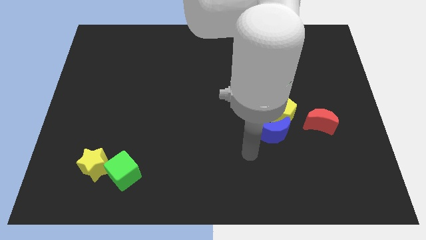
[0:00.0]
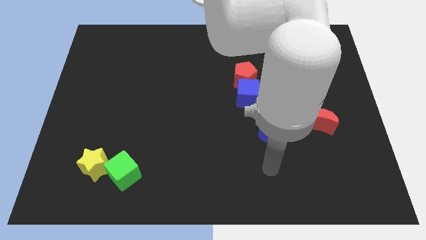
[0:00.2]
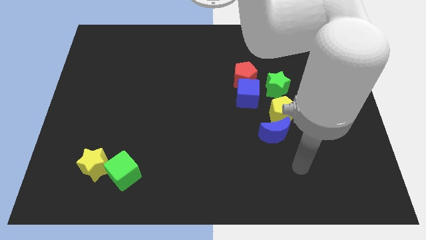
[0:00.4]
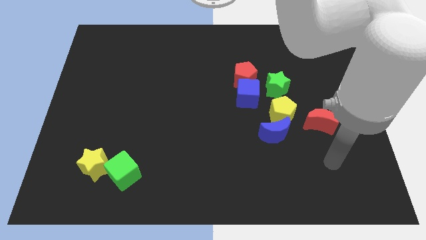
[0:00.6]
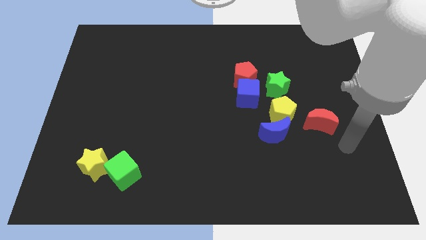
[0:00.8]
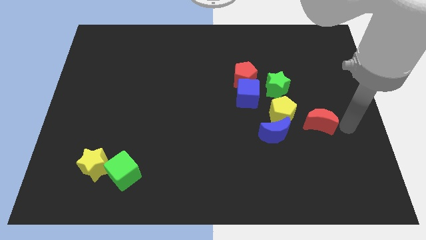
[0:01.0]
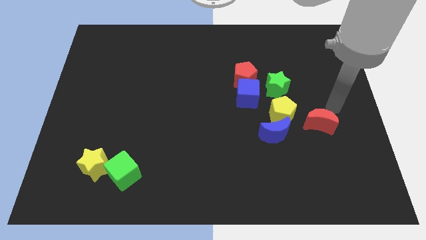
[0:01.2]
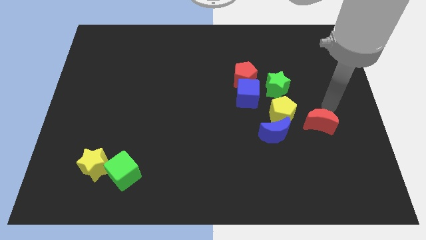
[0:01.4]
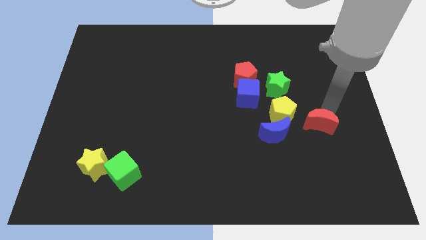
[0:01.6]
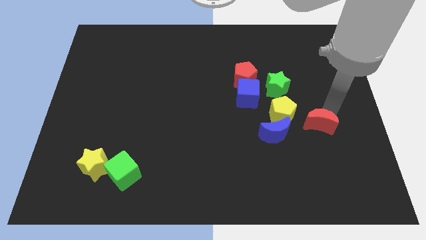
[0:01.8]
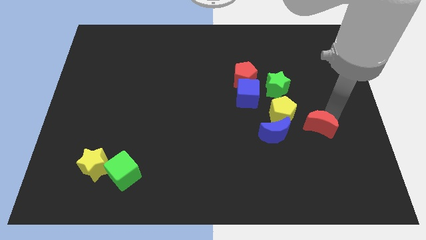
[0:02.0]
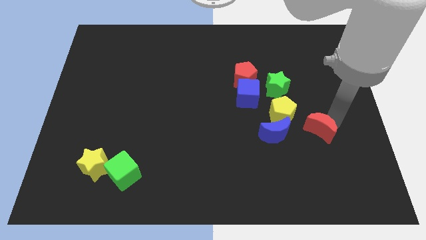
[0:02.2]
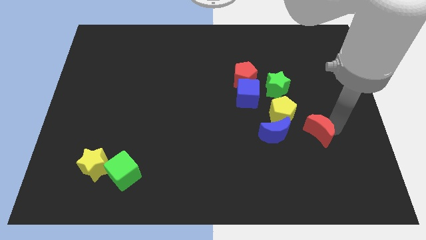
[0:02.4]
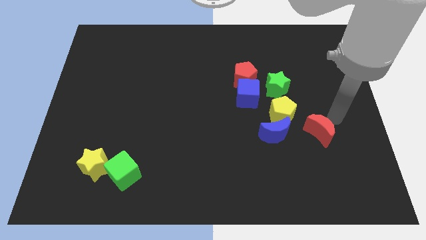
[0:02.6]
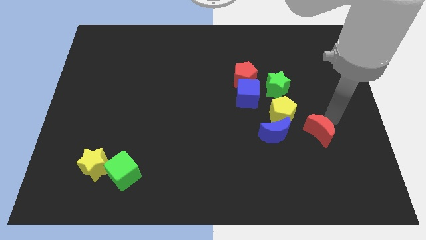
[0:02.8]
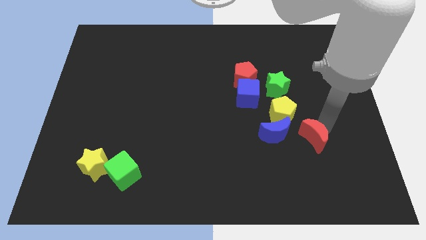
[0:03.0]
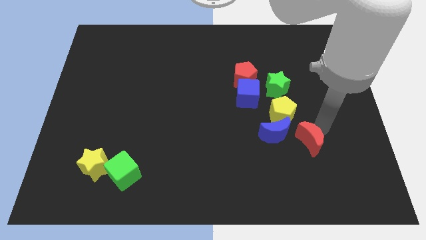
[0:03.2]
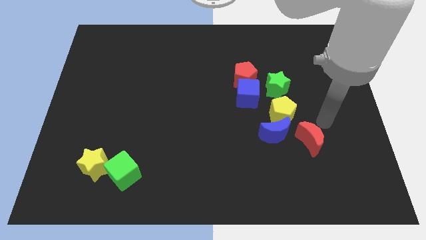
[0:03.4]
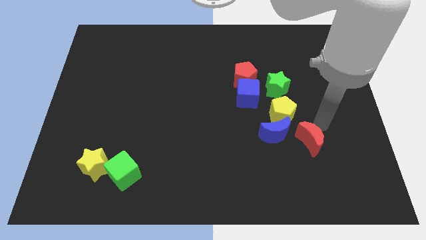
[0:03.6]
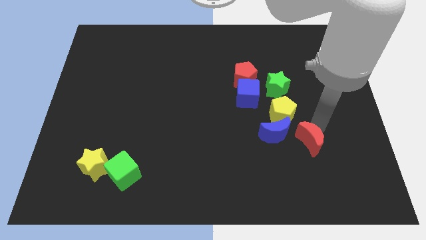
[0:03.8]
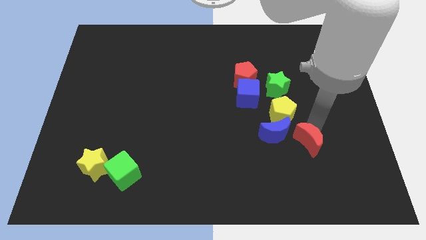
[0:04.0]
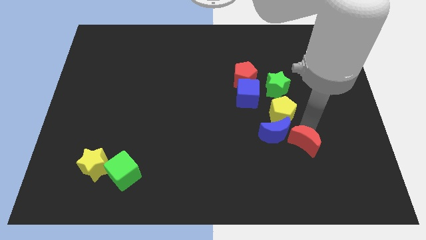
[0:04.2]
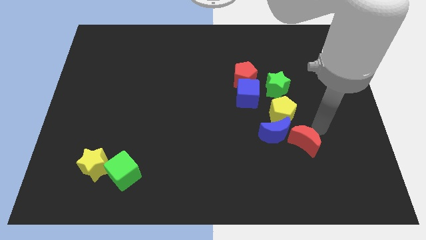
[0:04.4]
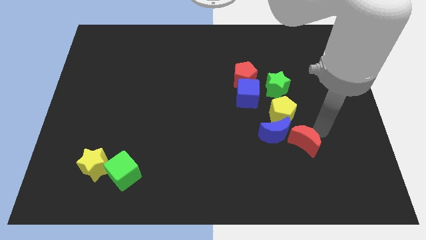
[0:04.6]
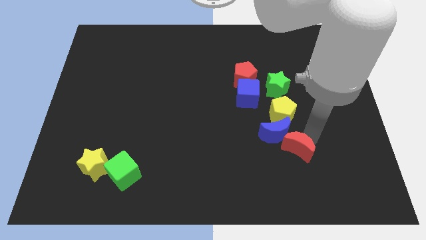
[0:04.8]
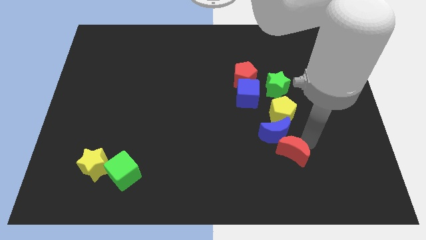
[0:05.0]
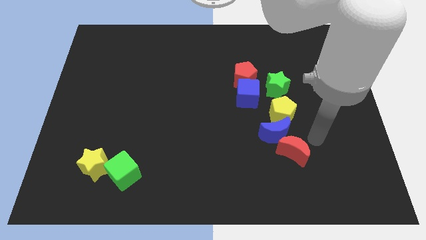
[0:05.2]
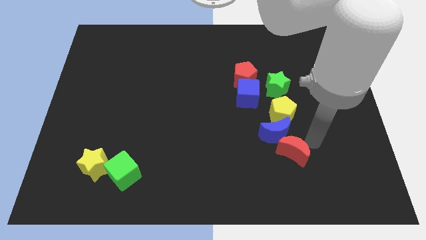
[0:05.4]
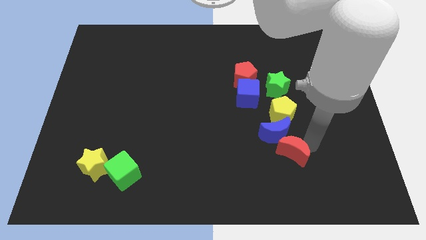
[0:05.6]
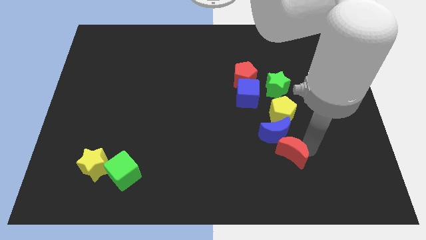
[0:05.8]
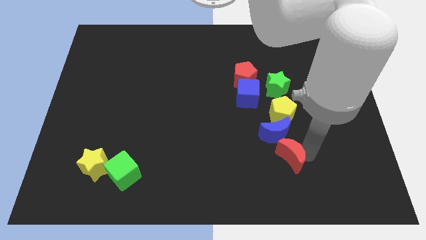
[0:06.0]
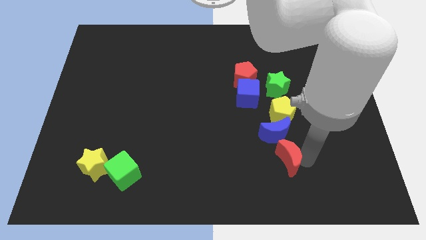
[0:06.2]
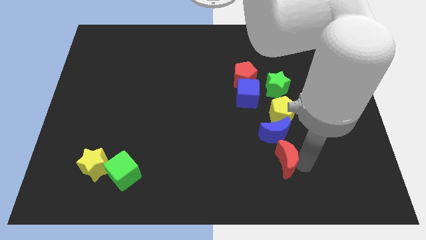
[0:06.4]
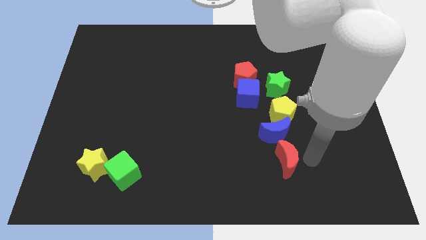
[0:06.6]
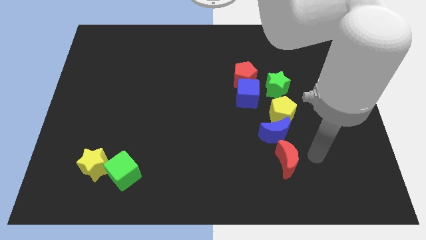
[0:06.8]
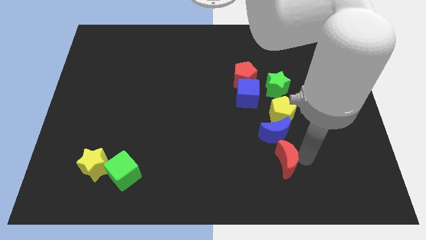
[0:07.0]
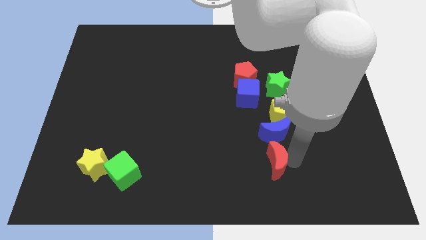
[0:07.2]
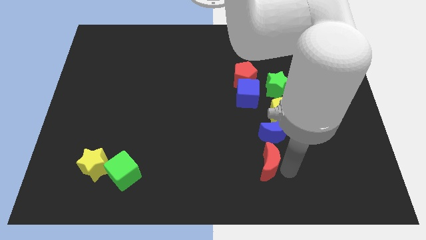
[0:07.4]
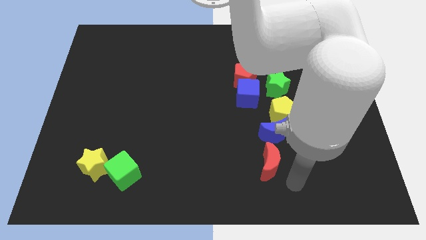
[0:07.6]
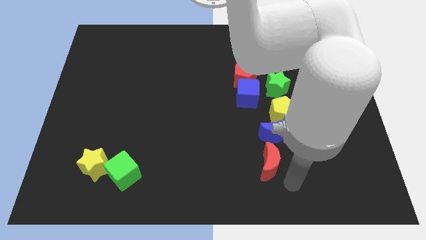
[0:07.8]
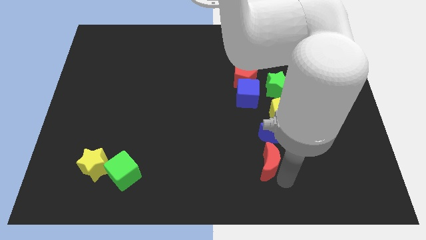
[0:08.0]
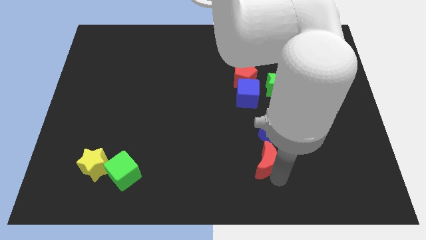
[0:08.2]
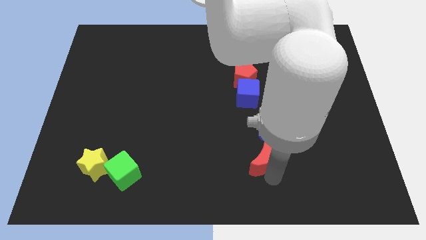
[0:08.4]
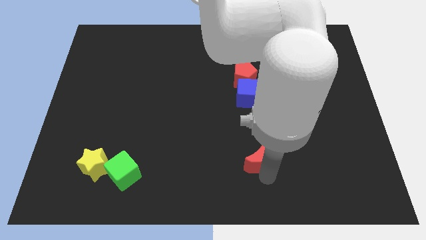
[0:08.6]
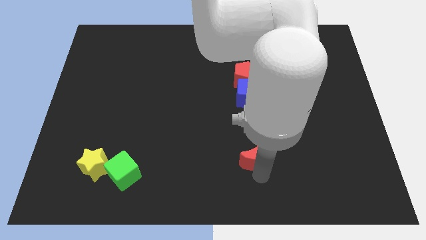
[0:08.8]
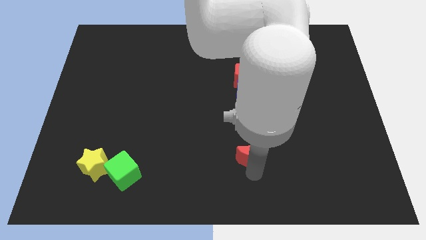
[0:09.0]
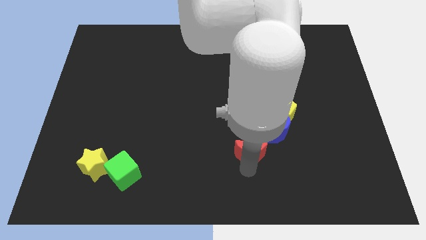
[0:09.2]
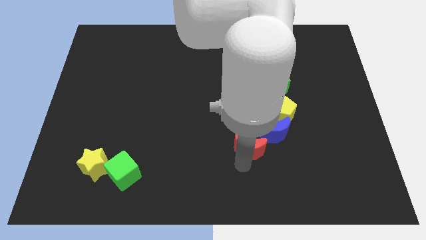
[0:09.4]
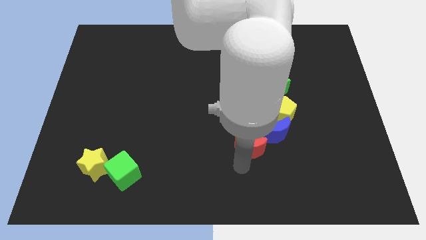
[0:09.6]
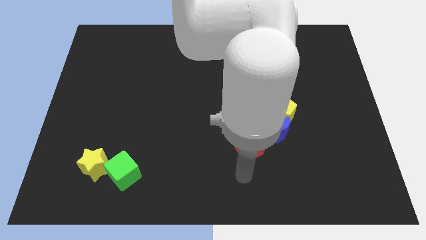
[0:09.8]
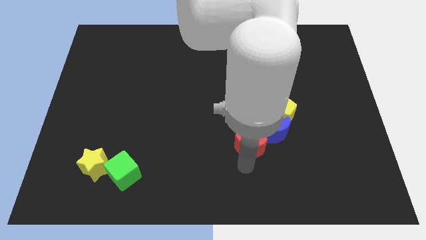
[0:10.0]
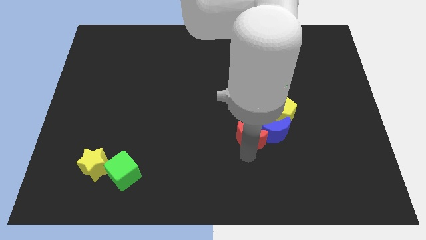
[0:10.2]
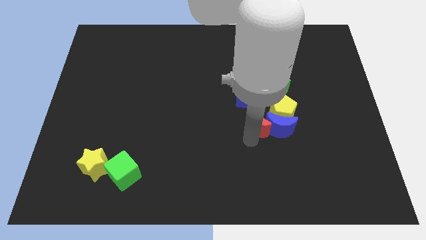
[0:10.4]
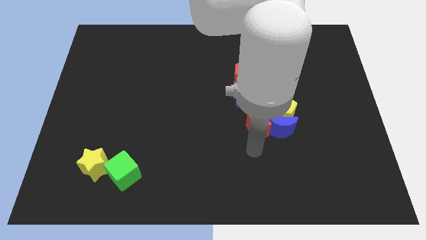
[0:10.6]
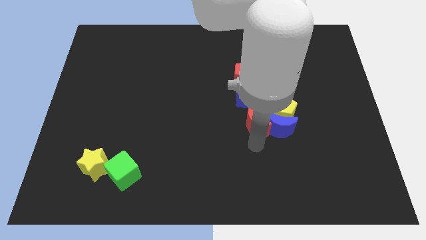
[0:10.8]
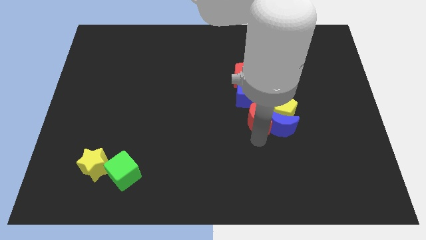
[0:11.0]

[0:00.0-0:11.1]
push the red moon diagonally down and to the left of the green star

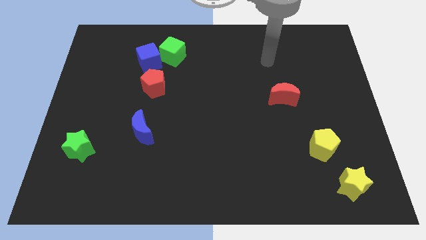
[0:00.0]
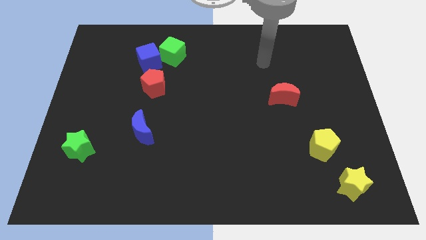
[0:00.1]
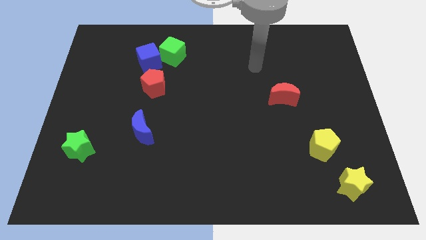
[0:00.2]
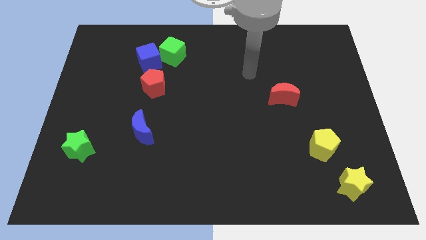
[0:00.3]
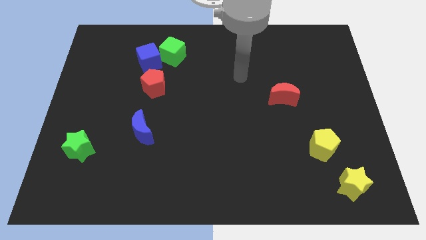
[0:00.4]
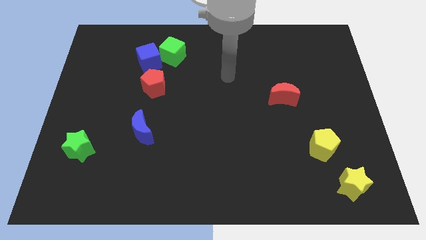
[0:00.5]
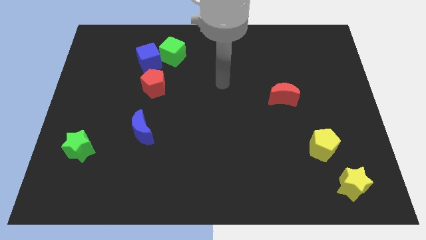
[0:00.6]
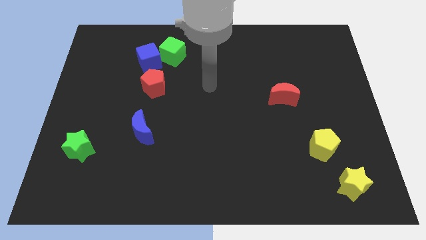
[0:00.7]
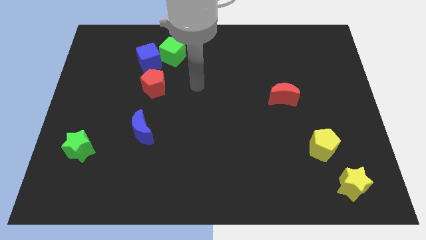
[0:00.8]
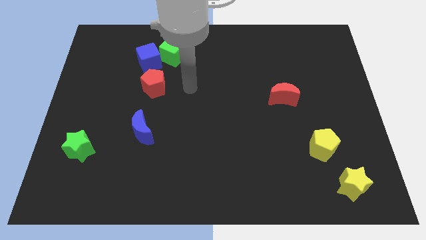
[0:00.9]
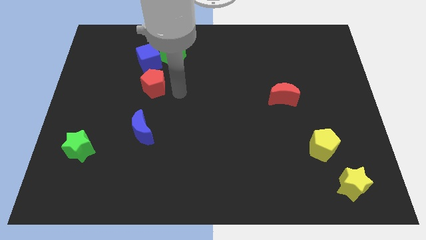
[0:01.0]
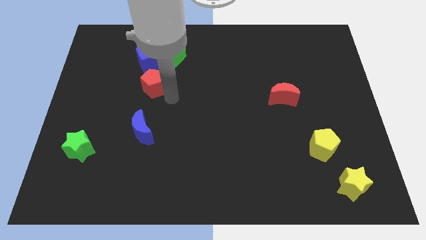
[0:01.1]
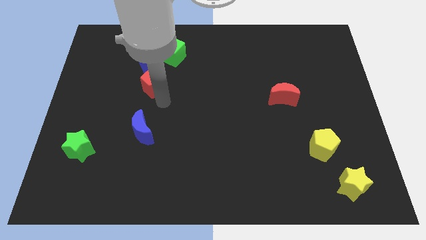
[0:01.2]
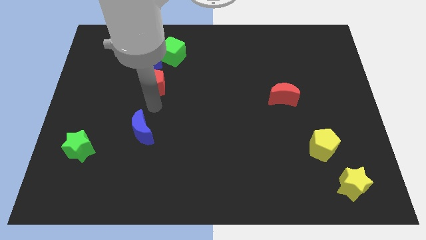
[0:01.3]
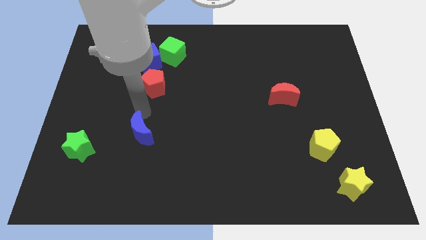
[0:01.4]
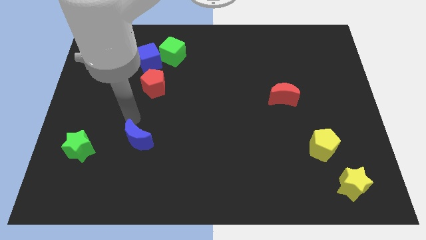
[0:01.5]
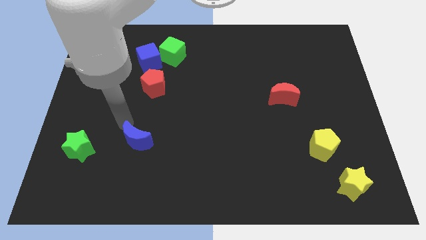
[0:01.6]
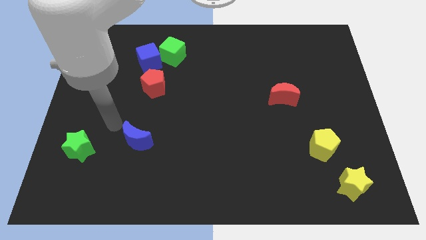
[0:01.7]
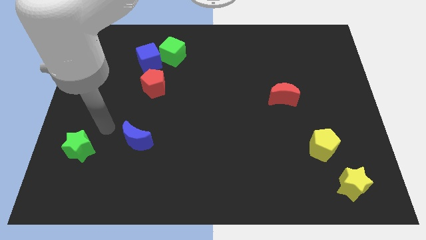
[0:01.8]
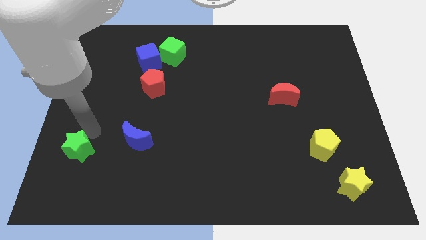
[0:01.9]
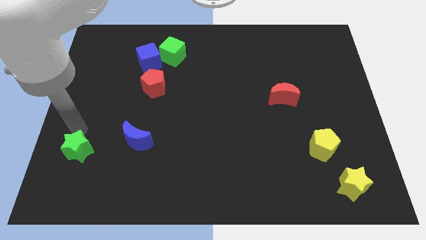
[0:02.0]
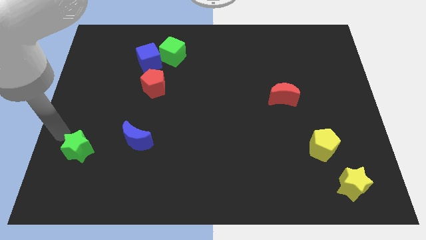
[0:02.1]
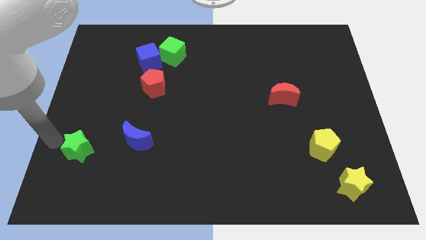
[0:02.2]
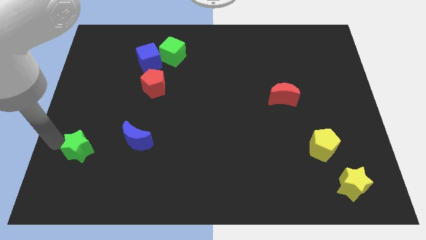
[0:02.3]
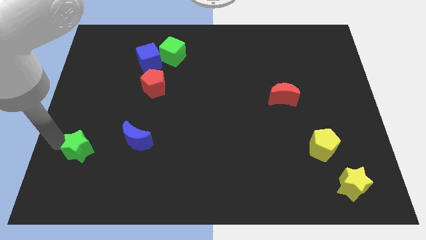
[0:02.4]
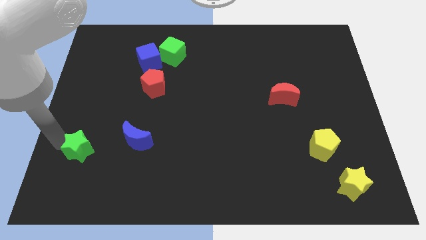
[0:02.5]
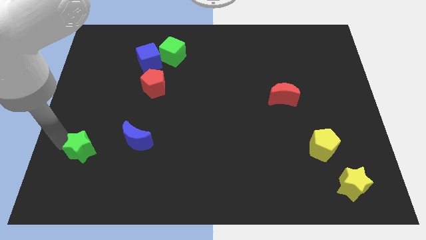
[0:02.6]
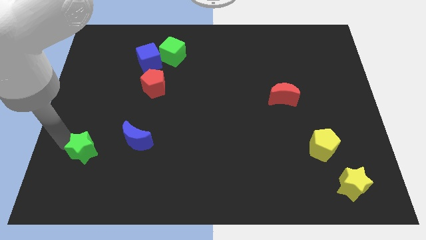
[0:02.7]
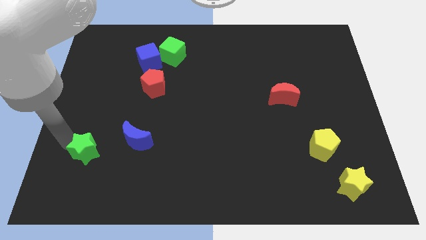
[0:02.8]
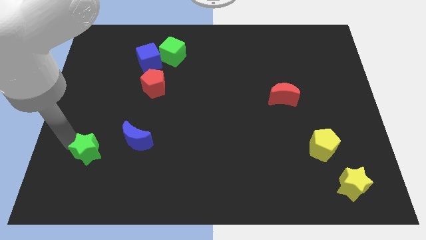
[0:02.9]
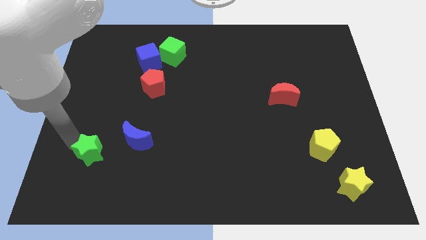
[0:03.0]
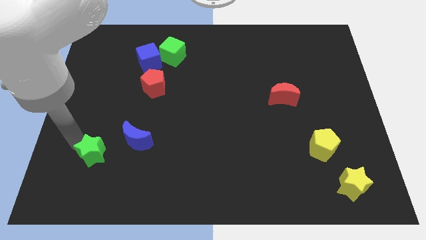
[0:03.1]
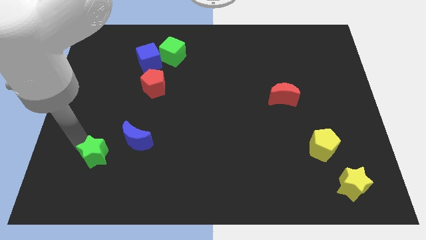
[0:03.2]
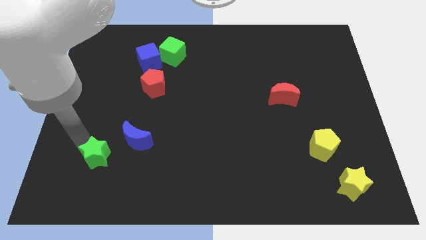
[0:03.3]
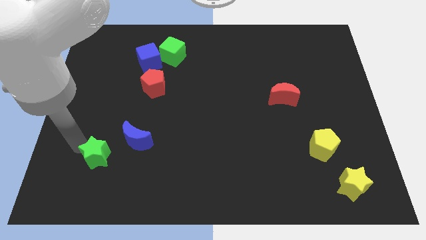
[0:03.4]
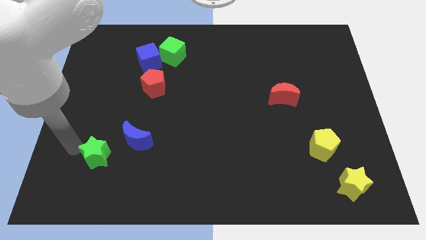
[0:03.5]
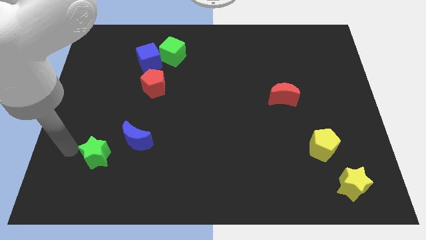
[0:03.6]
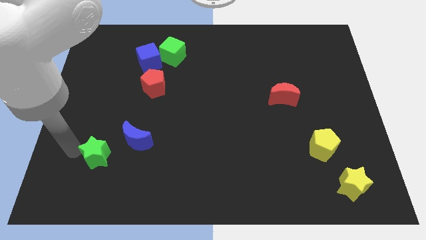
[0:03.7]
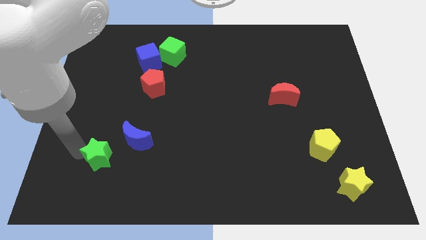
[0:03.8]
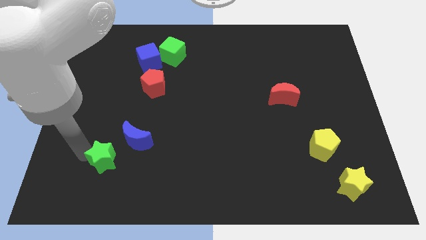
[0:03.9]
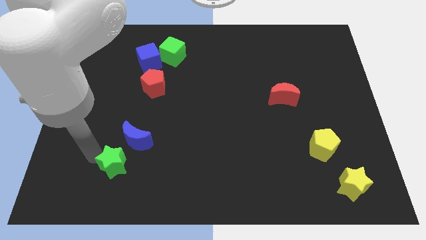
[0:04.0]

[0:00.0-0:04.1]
slide the green star to the bottom side of the blue moon
